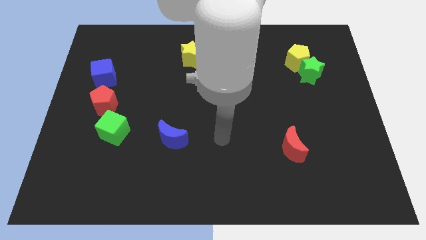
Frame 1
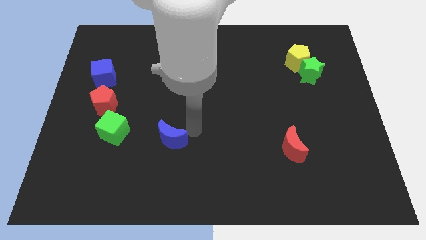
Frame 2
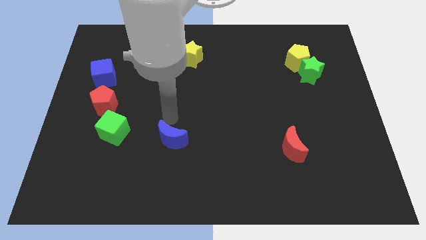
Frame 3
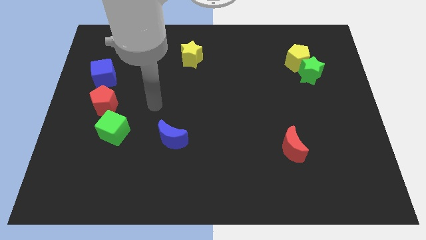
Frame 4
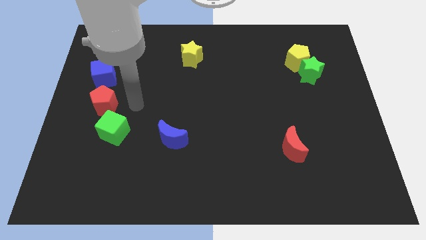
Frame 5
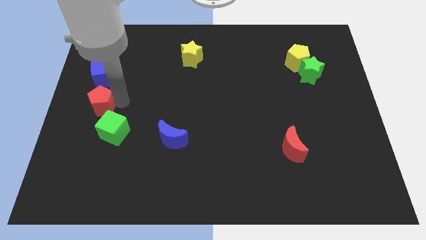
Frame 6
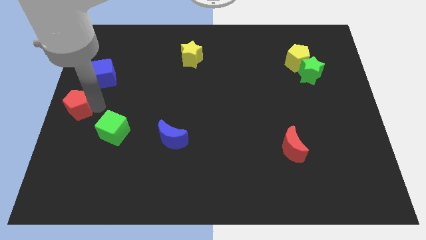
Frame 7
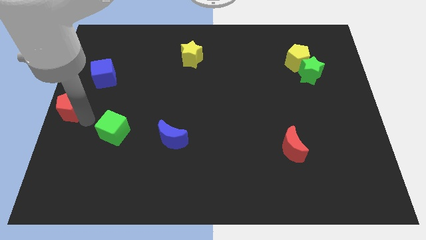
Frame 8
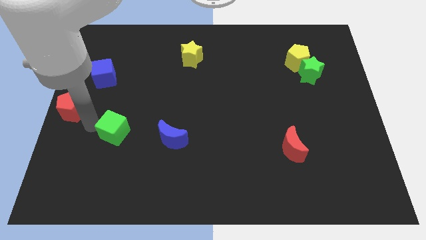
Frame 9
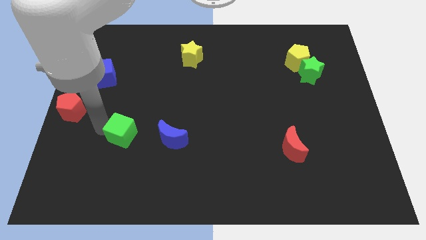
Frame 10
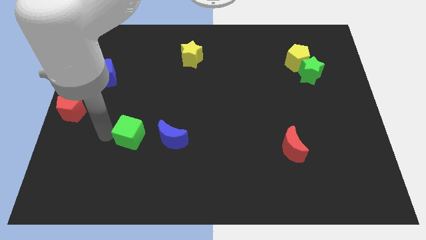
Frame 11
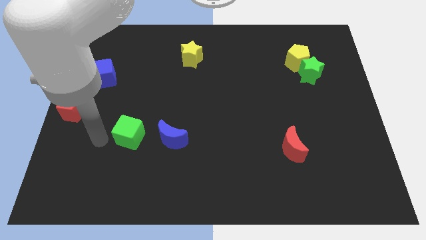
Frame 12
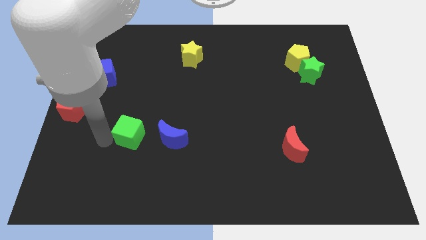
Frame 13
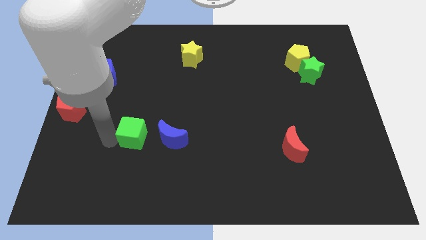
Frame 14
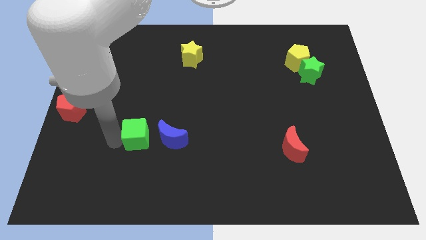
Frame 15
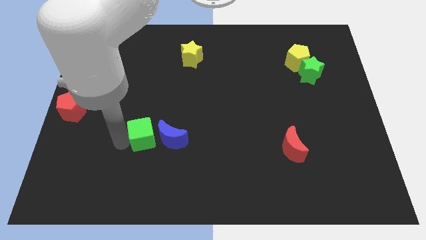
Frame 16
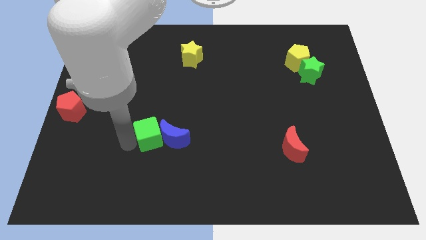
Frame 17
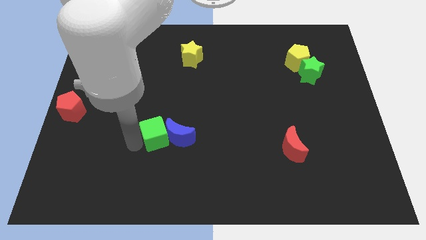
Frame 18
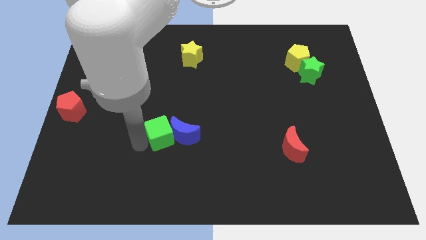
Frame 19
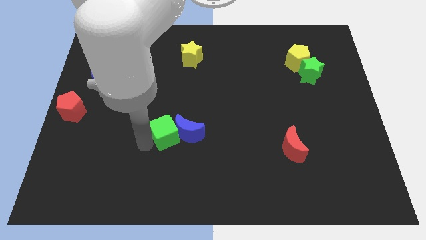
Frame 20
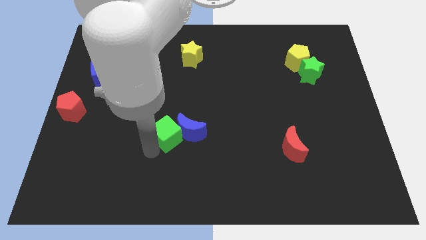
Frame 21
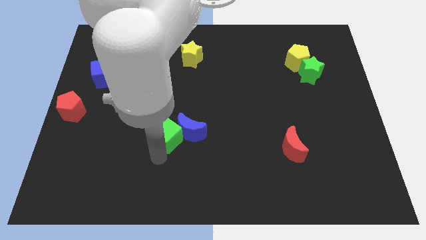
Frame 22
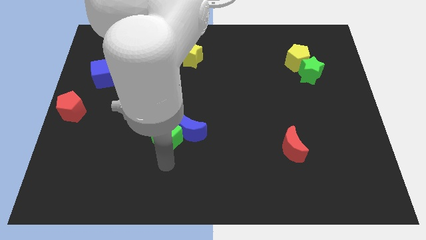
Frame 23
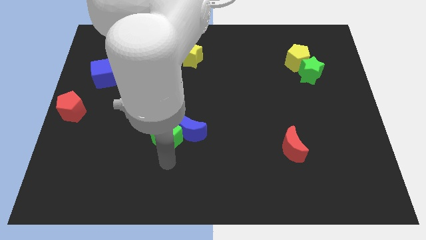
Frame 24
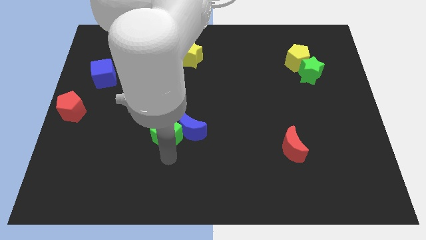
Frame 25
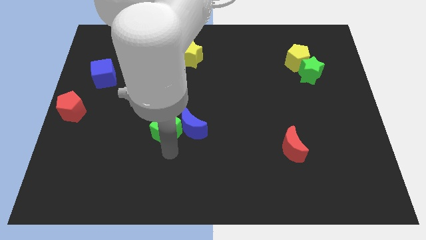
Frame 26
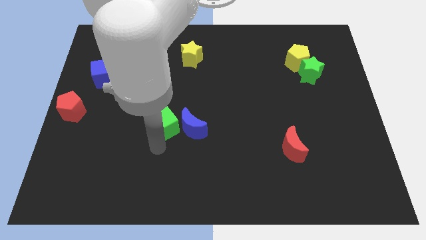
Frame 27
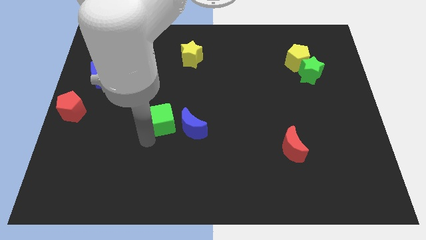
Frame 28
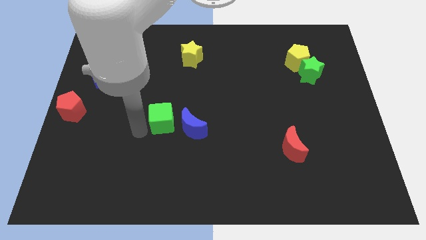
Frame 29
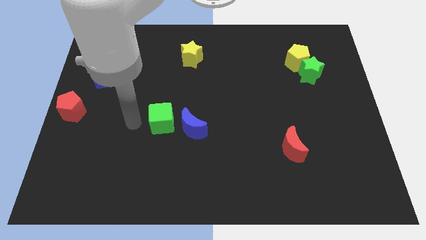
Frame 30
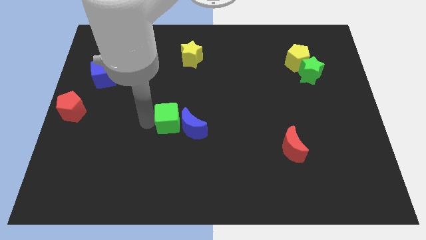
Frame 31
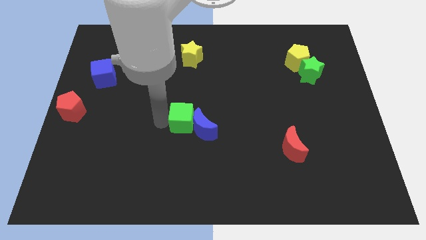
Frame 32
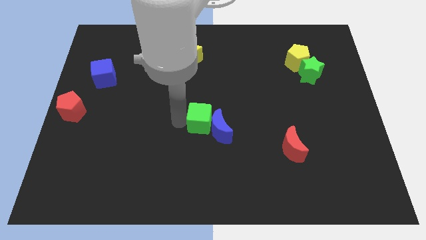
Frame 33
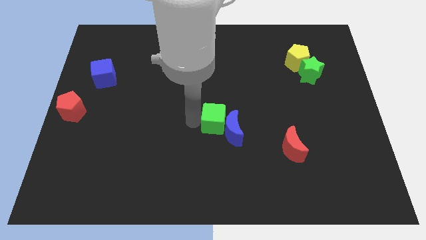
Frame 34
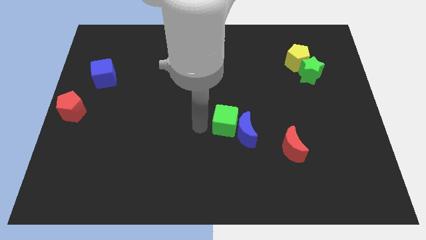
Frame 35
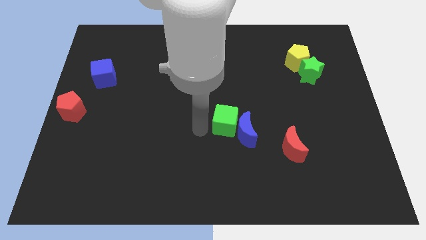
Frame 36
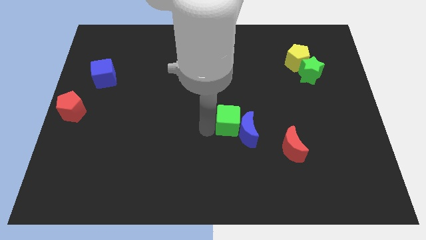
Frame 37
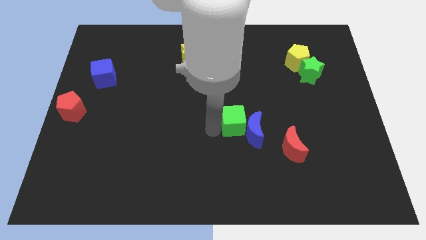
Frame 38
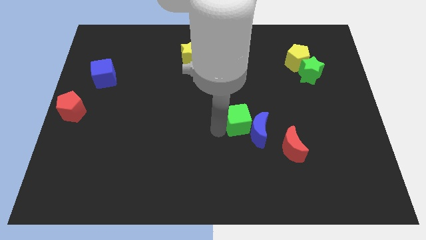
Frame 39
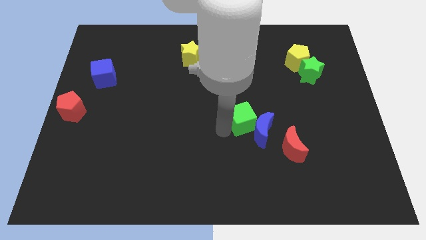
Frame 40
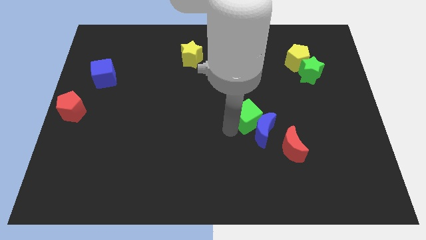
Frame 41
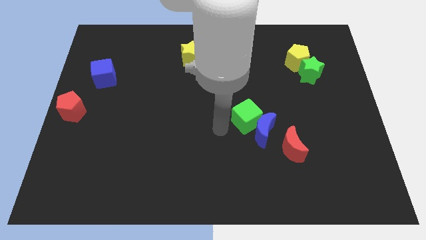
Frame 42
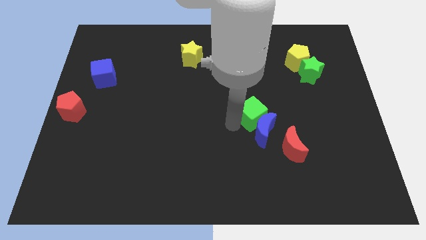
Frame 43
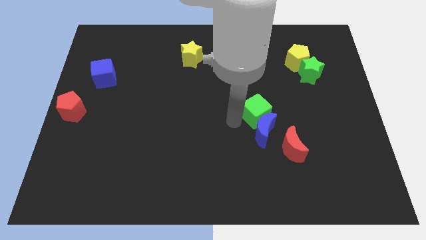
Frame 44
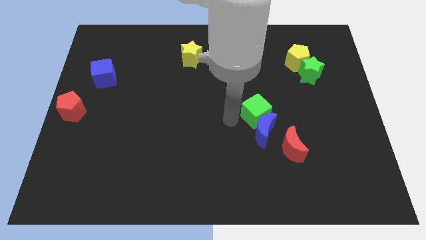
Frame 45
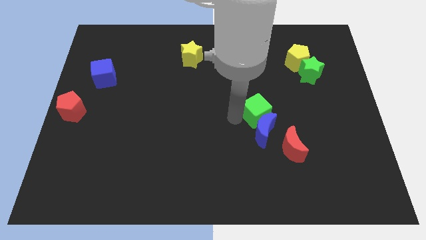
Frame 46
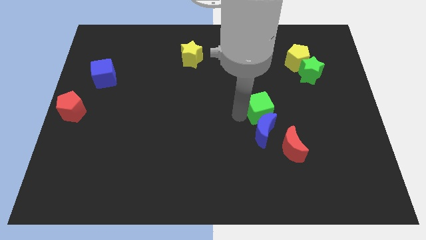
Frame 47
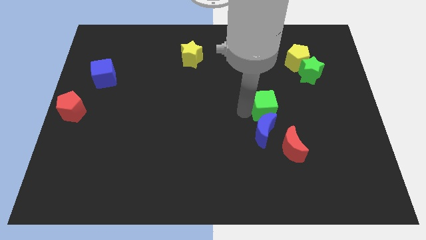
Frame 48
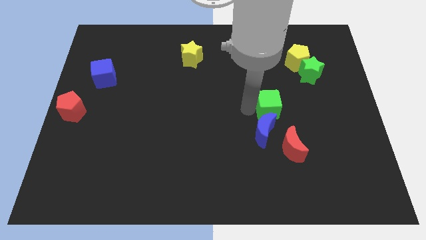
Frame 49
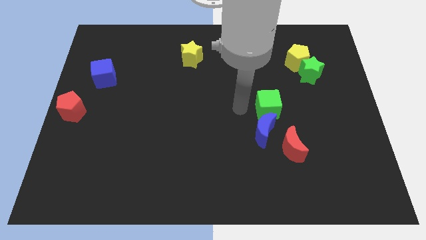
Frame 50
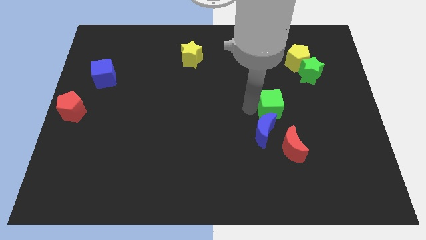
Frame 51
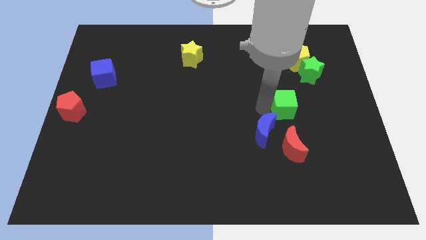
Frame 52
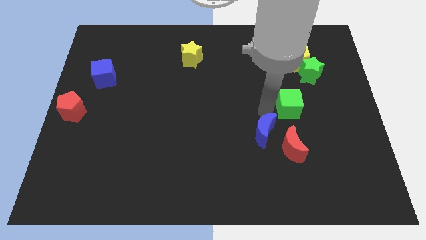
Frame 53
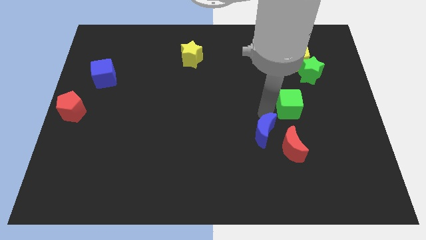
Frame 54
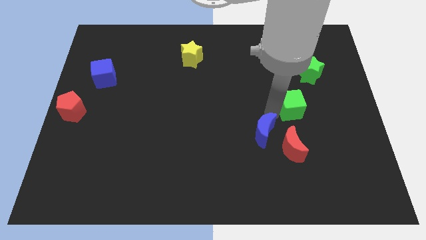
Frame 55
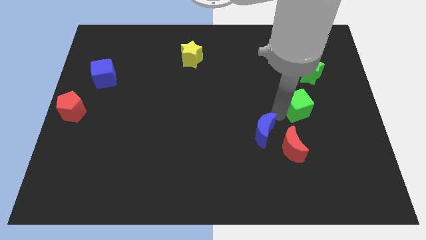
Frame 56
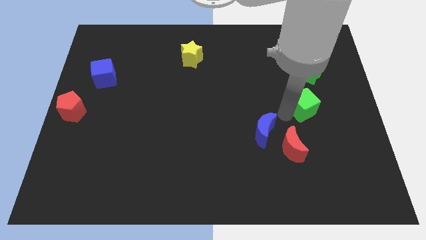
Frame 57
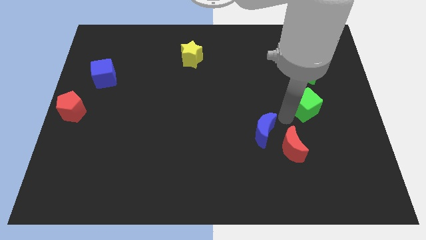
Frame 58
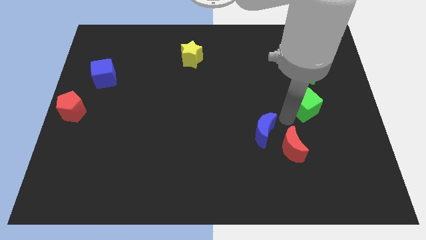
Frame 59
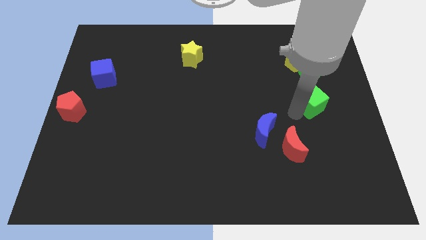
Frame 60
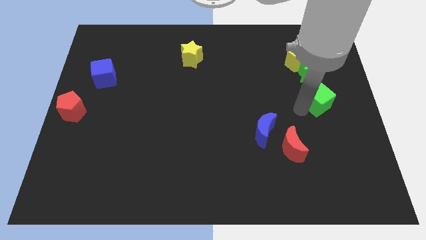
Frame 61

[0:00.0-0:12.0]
slide the green cube to the right side

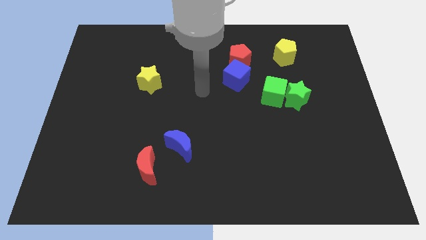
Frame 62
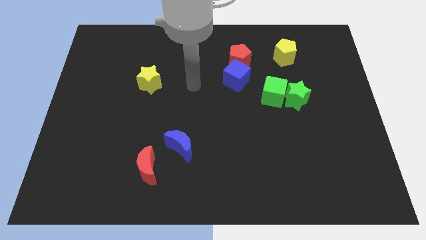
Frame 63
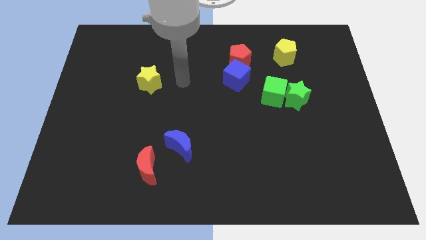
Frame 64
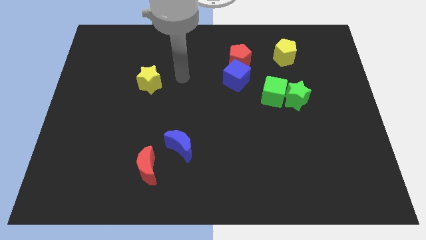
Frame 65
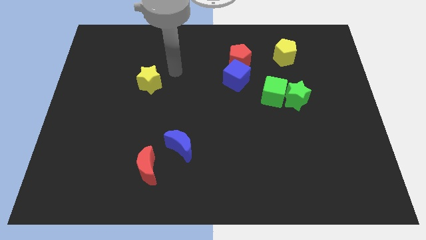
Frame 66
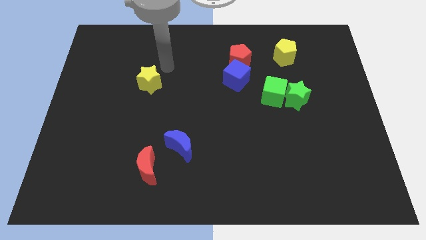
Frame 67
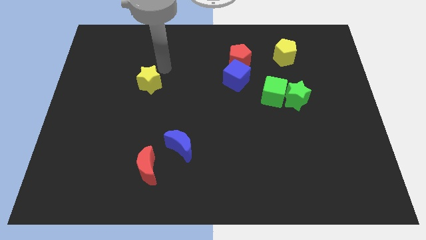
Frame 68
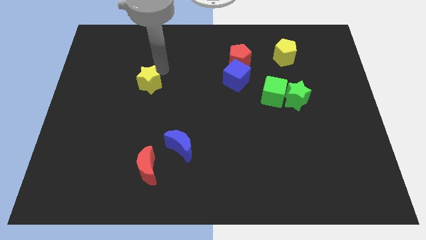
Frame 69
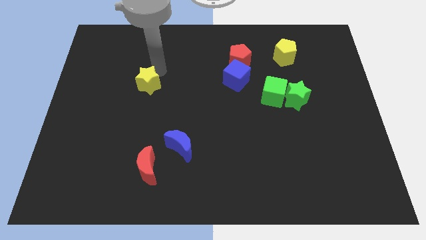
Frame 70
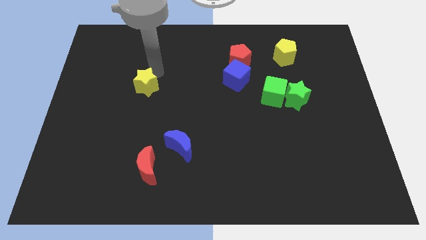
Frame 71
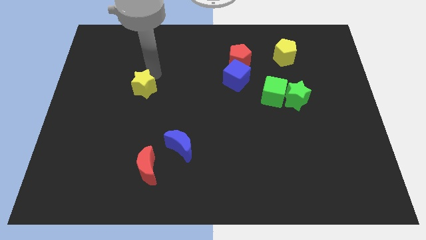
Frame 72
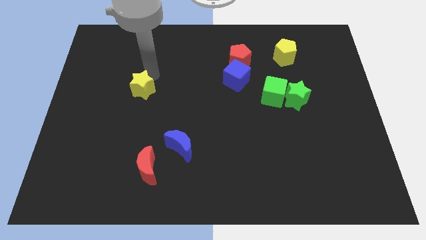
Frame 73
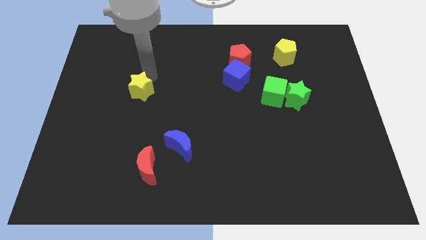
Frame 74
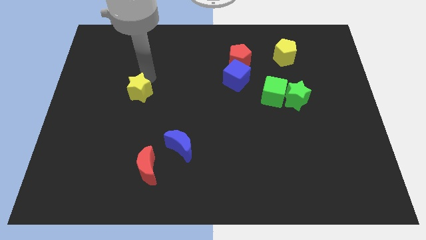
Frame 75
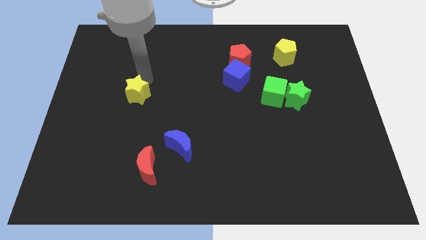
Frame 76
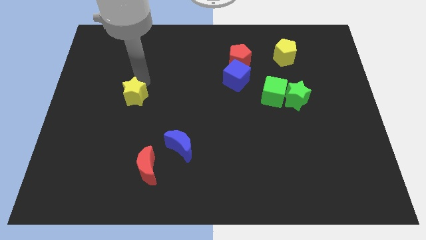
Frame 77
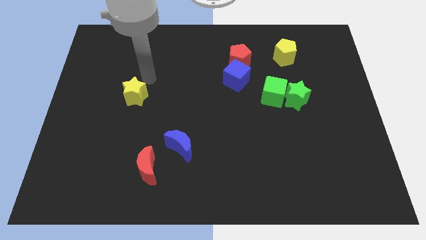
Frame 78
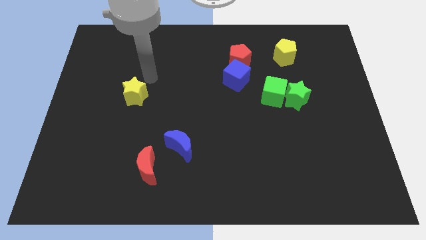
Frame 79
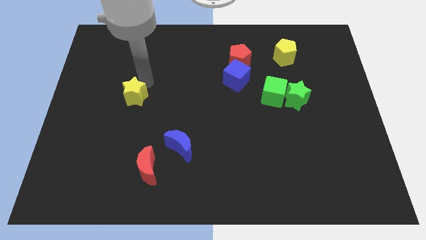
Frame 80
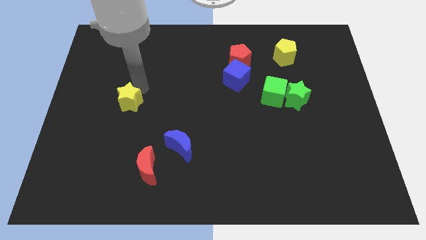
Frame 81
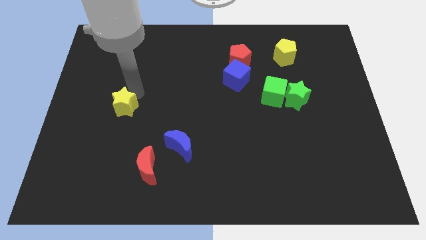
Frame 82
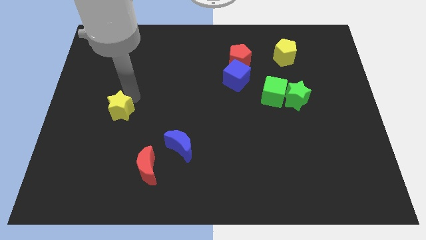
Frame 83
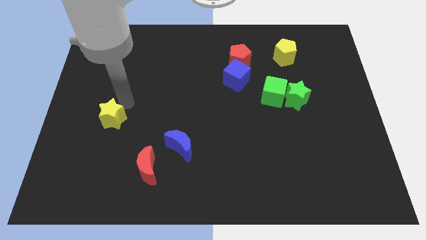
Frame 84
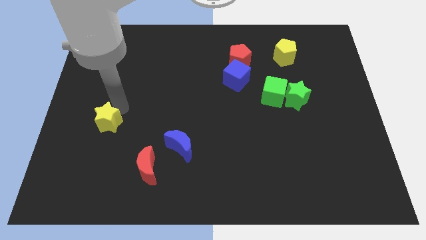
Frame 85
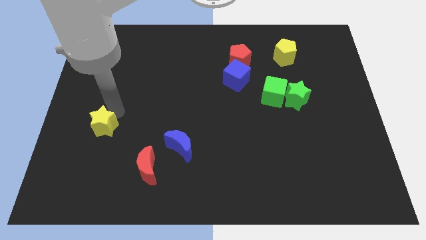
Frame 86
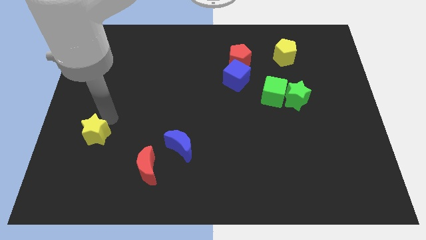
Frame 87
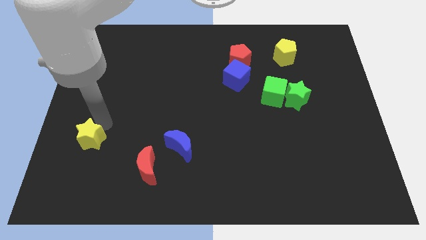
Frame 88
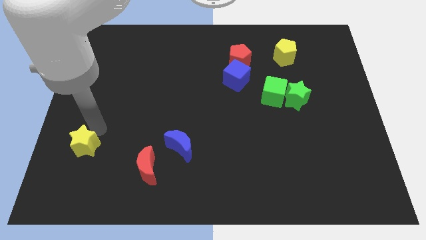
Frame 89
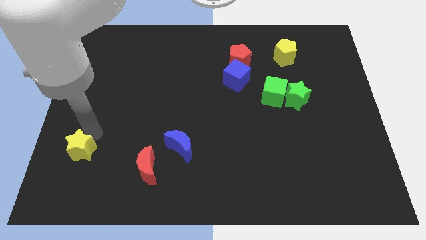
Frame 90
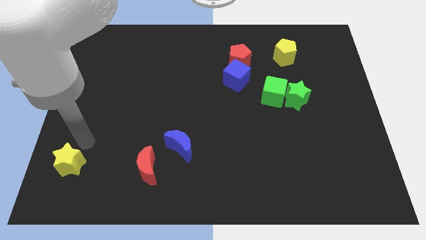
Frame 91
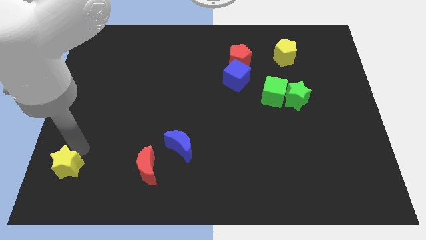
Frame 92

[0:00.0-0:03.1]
slide the yellow star to the lower left corner
